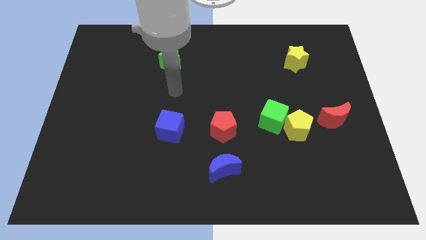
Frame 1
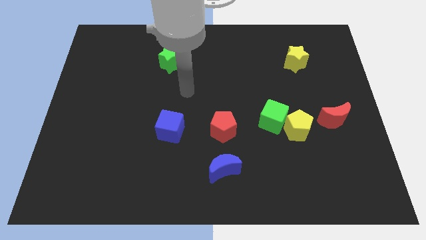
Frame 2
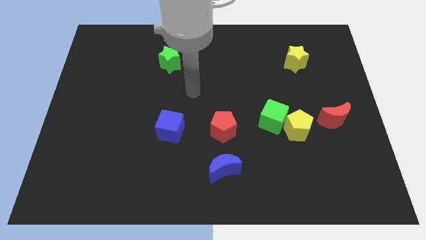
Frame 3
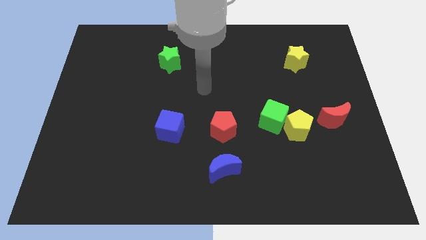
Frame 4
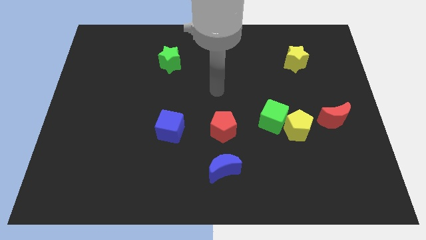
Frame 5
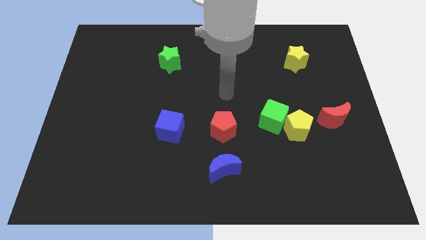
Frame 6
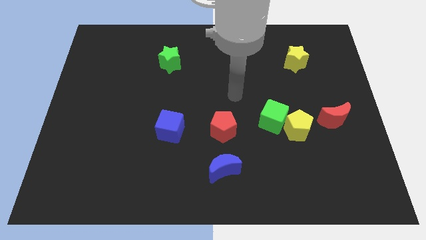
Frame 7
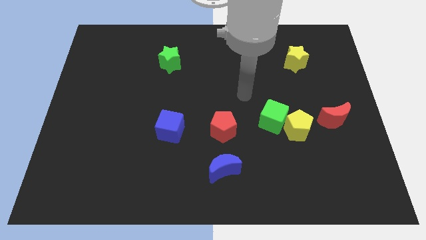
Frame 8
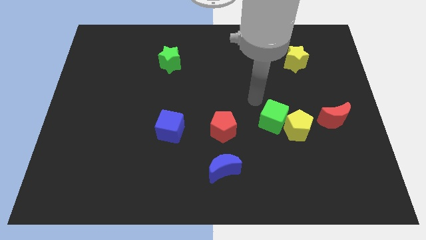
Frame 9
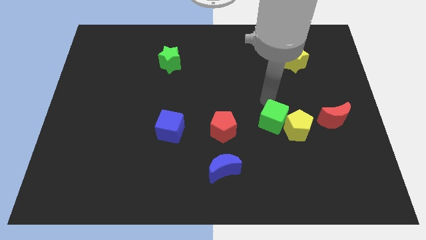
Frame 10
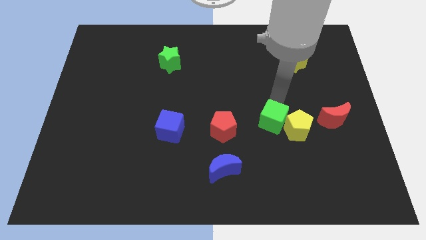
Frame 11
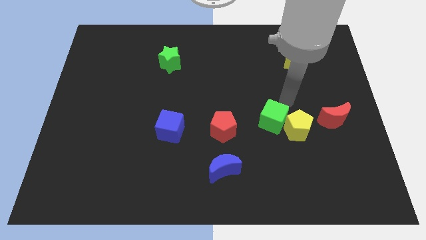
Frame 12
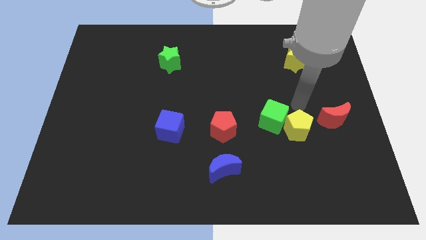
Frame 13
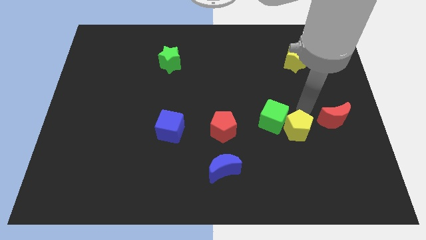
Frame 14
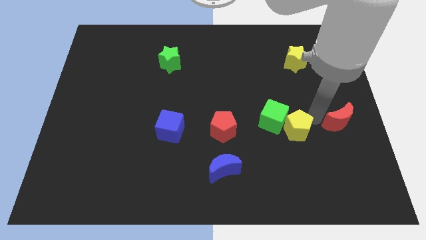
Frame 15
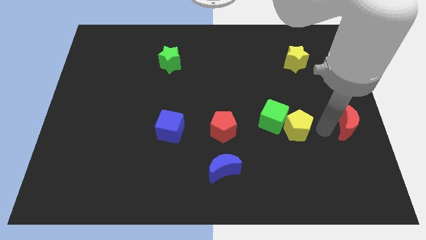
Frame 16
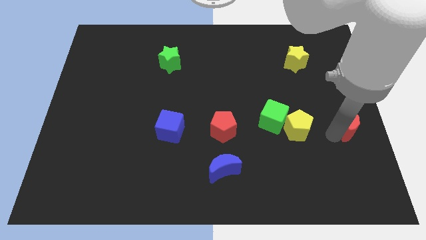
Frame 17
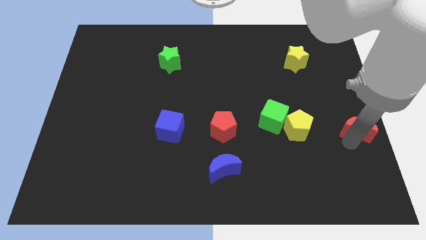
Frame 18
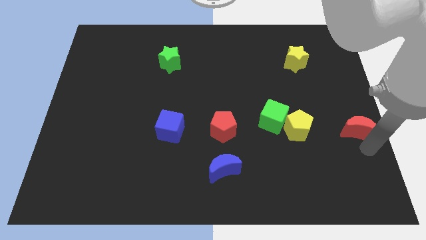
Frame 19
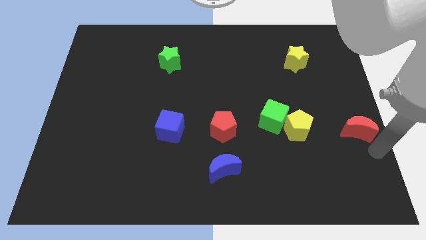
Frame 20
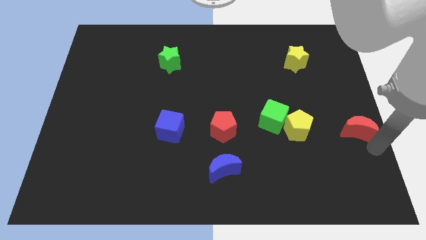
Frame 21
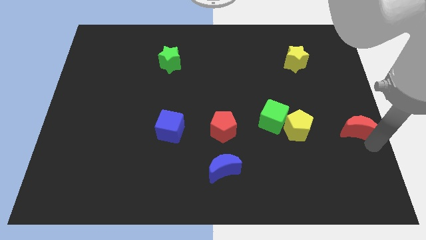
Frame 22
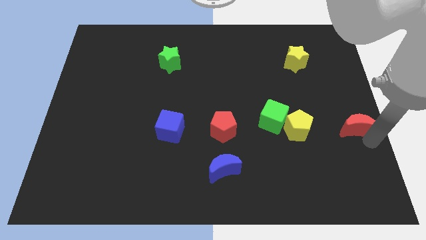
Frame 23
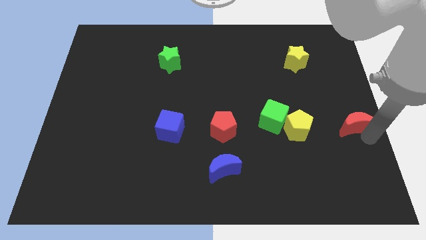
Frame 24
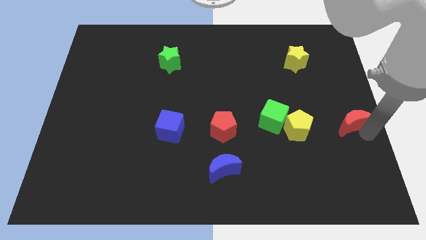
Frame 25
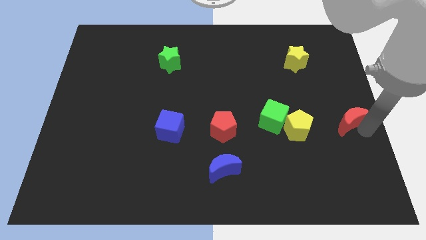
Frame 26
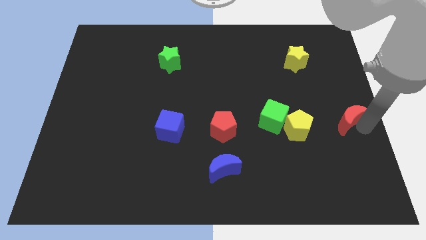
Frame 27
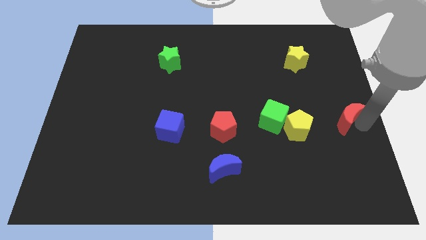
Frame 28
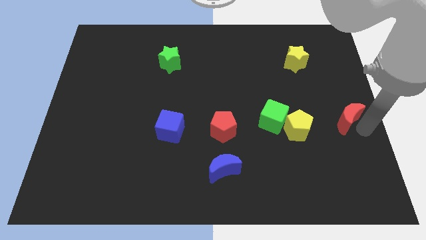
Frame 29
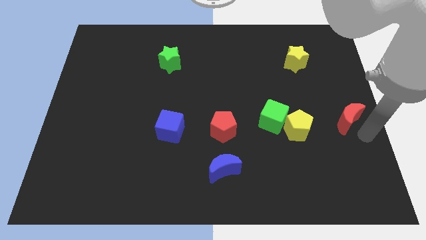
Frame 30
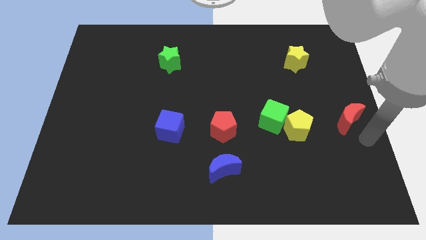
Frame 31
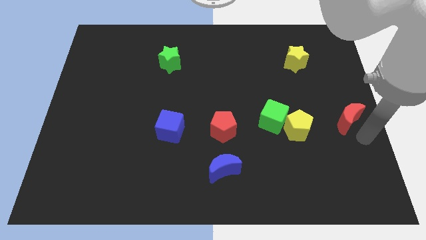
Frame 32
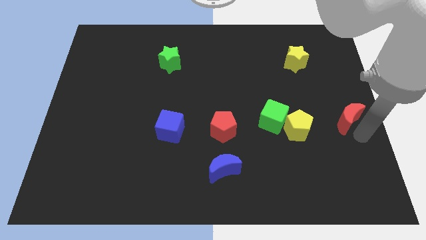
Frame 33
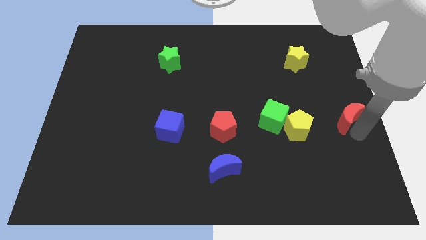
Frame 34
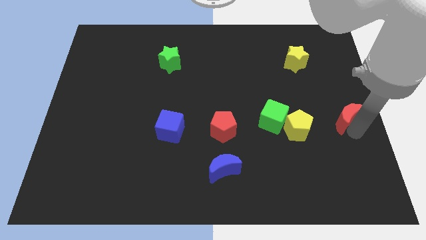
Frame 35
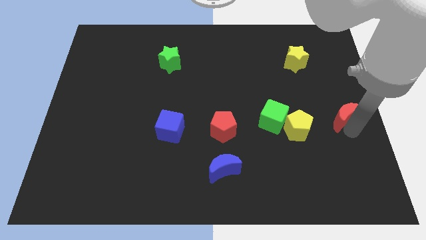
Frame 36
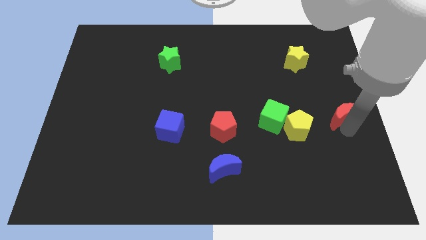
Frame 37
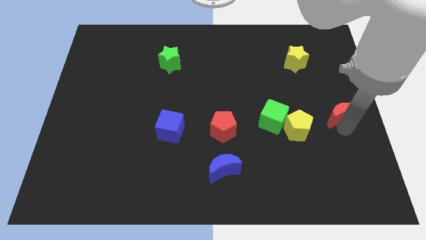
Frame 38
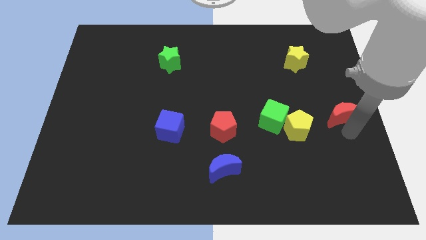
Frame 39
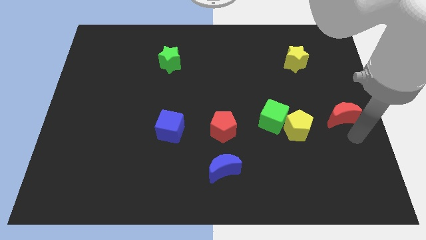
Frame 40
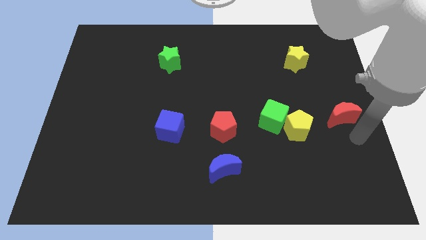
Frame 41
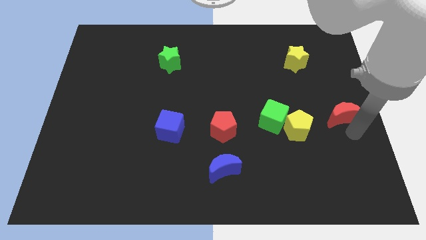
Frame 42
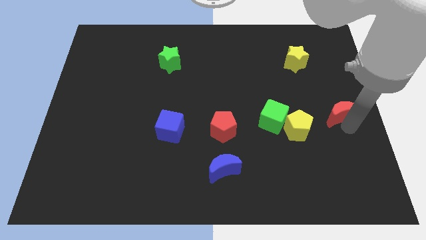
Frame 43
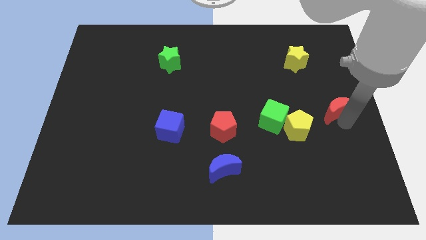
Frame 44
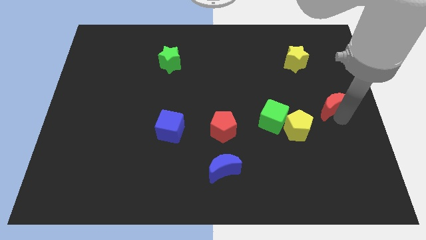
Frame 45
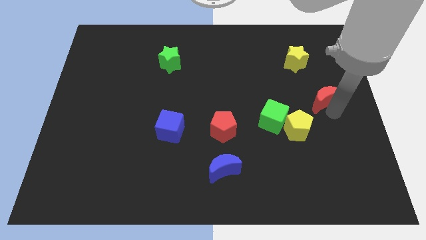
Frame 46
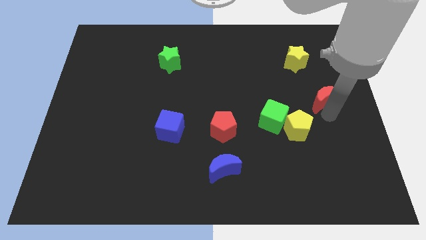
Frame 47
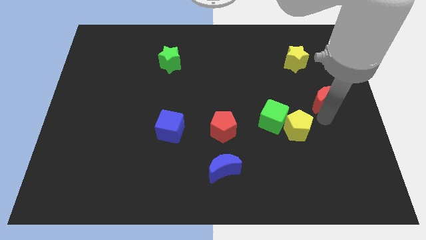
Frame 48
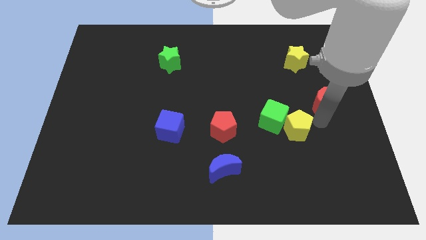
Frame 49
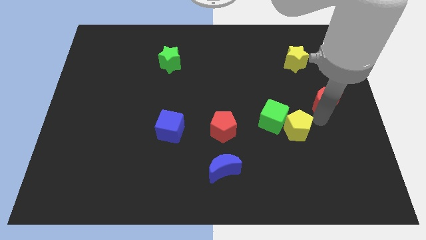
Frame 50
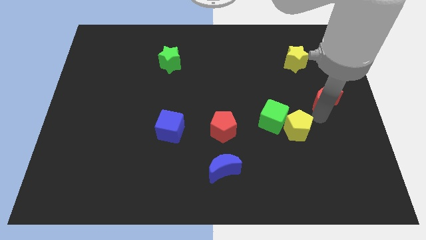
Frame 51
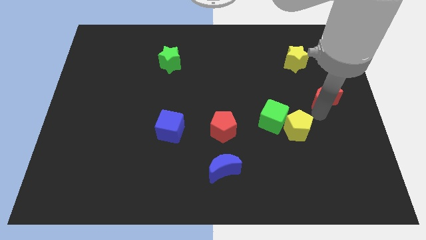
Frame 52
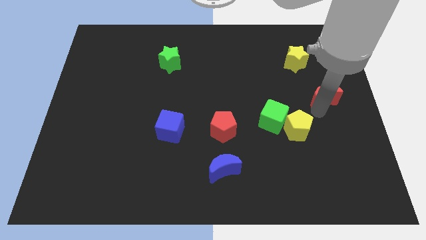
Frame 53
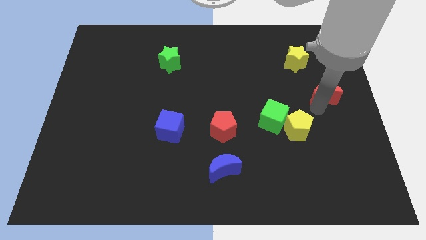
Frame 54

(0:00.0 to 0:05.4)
slide the red moon upwards a bit

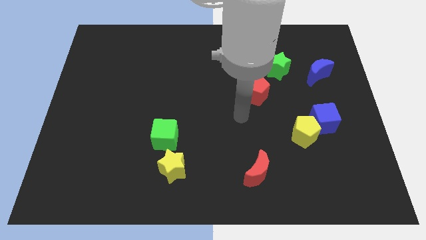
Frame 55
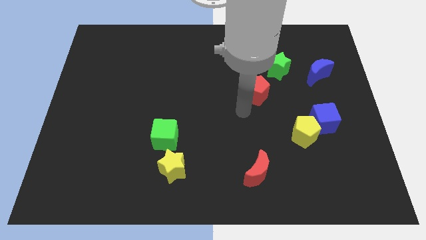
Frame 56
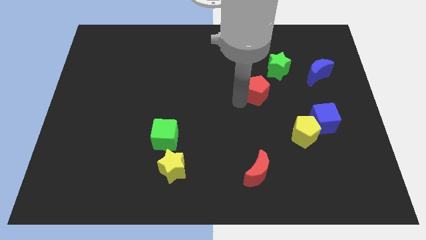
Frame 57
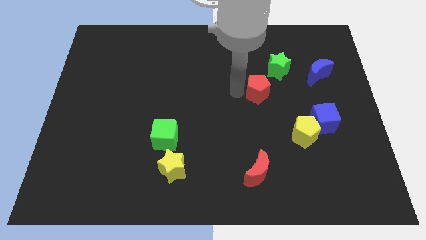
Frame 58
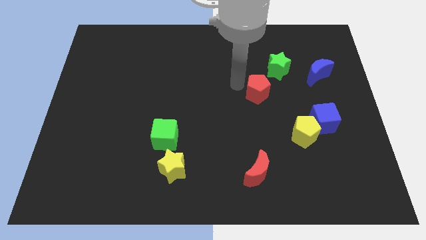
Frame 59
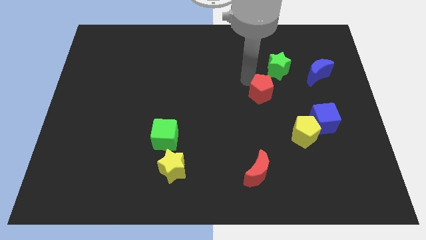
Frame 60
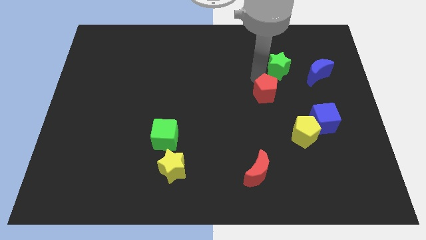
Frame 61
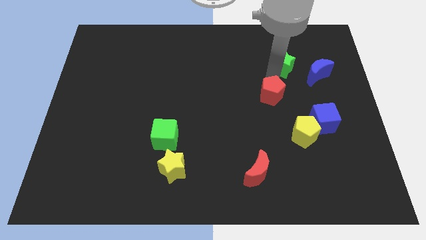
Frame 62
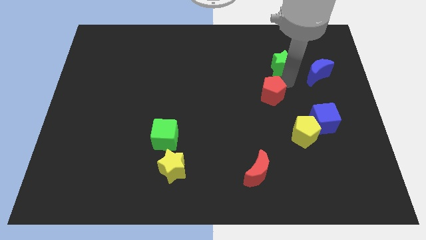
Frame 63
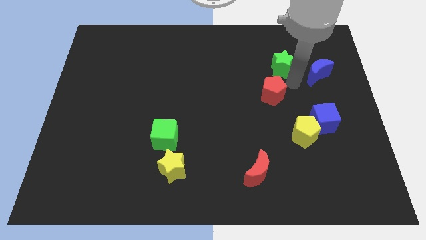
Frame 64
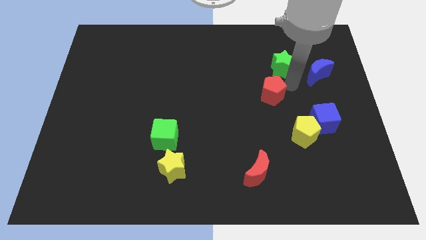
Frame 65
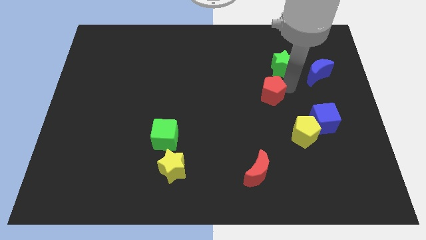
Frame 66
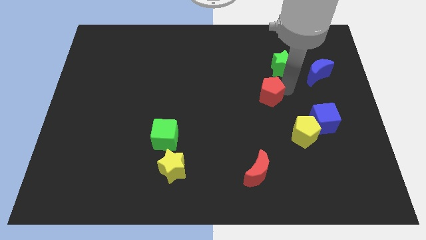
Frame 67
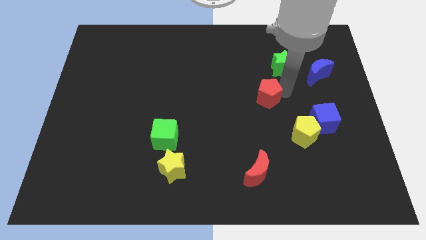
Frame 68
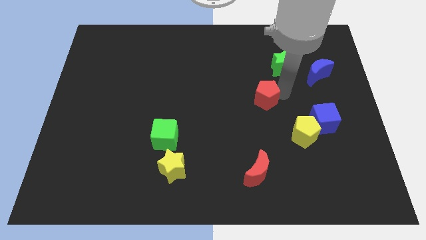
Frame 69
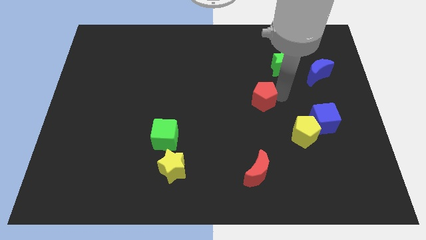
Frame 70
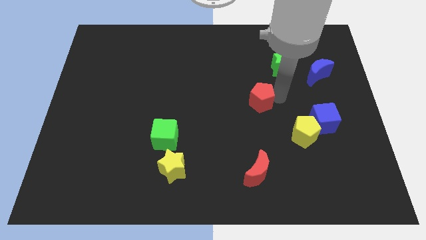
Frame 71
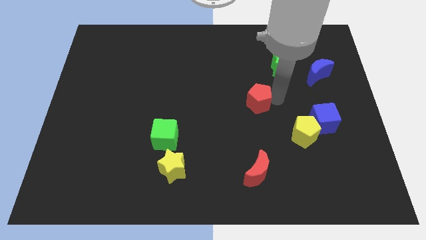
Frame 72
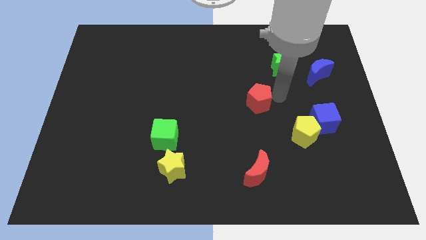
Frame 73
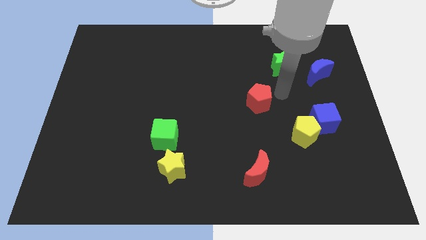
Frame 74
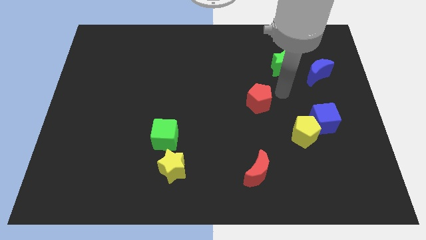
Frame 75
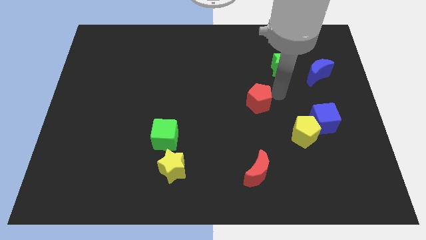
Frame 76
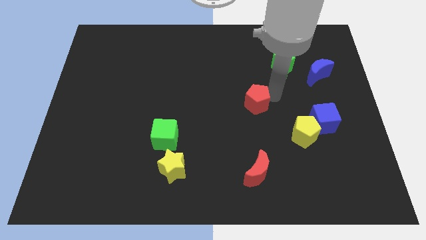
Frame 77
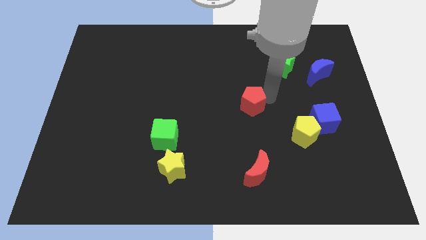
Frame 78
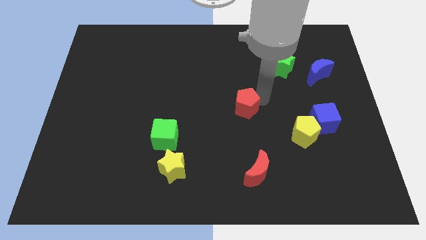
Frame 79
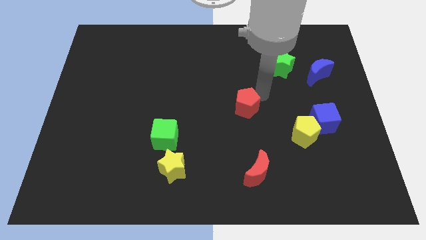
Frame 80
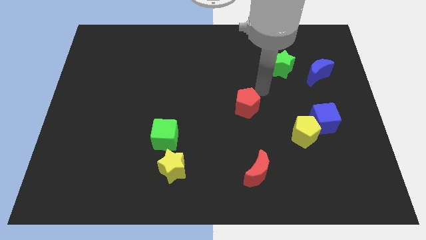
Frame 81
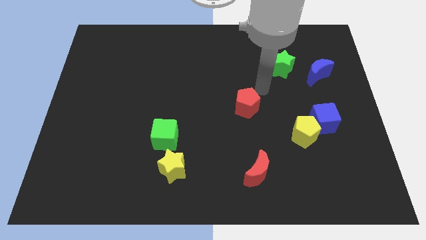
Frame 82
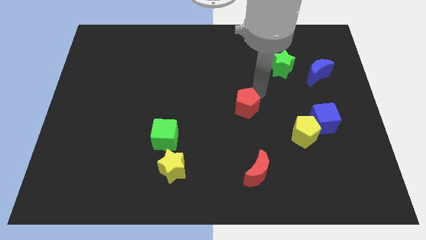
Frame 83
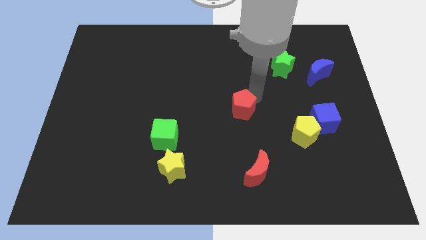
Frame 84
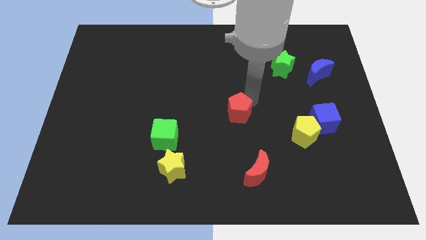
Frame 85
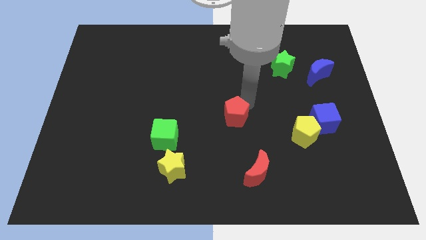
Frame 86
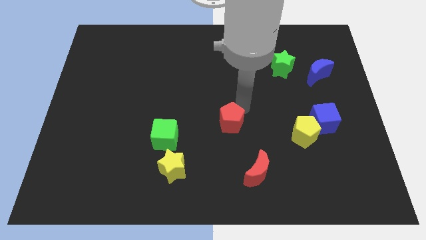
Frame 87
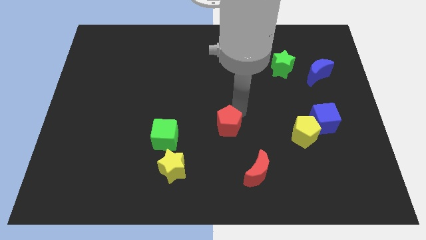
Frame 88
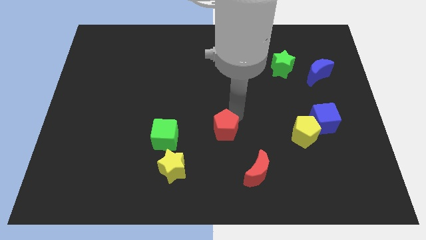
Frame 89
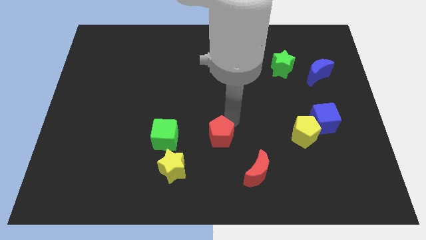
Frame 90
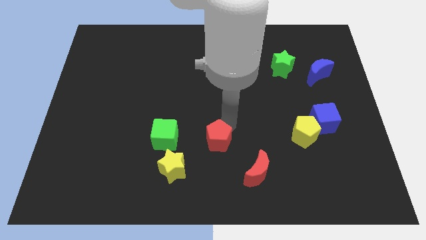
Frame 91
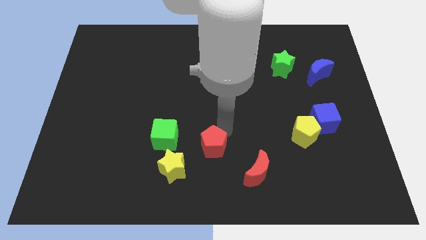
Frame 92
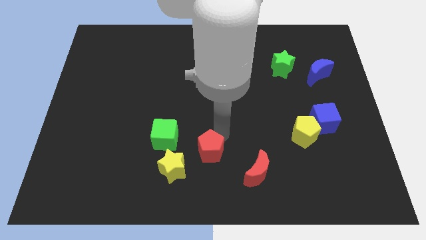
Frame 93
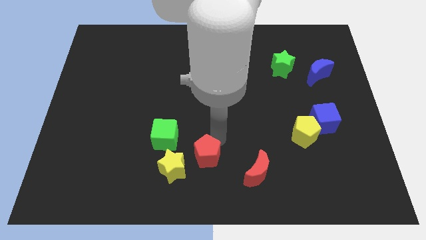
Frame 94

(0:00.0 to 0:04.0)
move the red pentagon down and to the left diagonally
